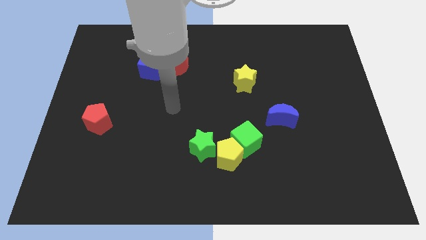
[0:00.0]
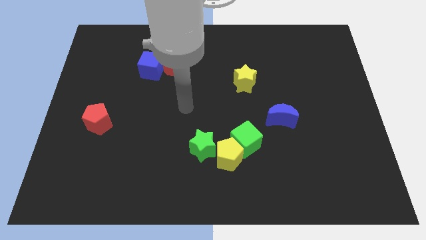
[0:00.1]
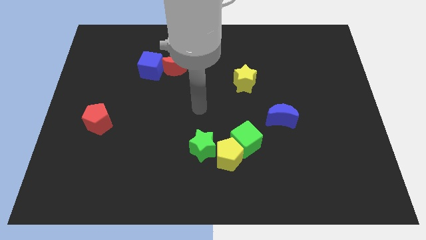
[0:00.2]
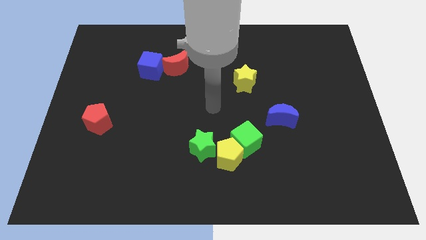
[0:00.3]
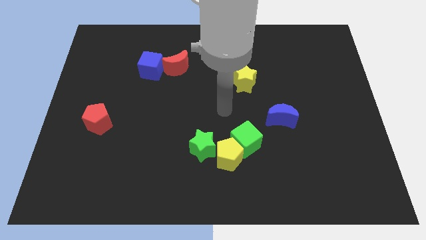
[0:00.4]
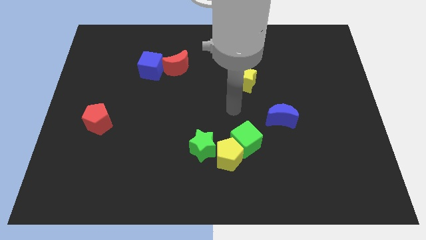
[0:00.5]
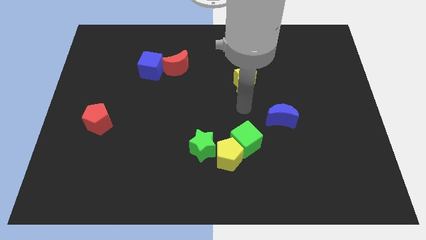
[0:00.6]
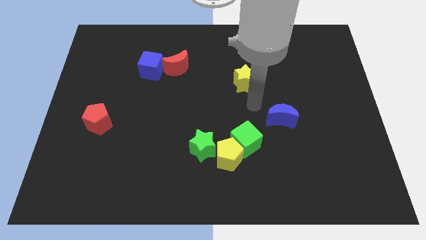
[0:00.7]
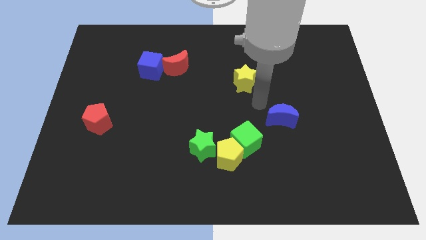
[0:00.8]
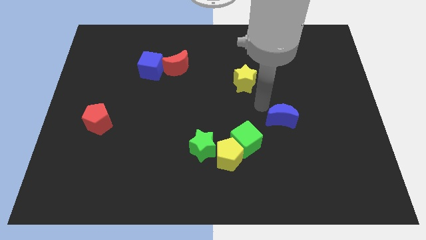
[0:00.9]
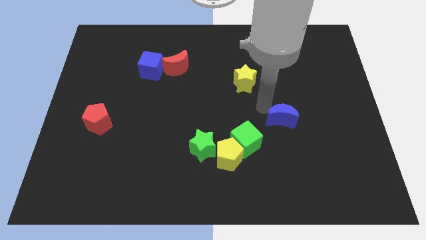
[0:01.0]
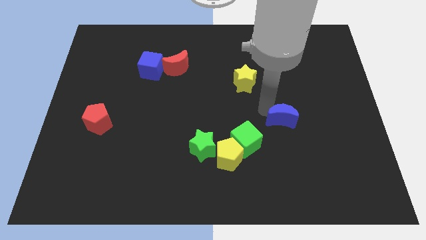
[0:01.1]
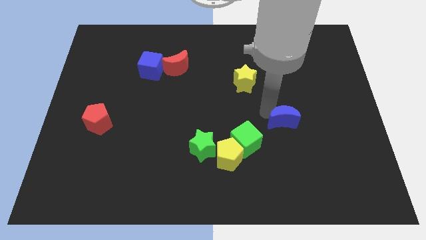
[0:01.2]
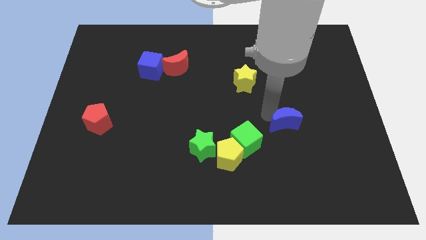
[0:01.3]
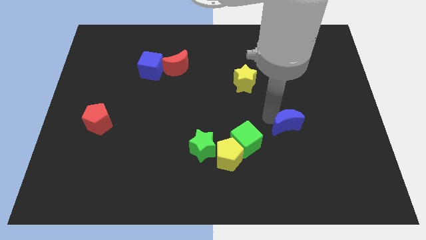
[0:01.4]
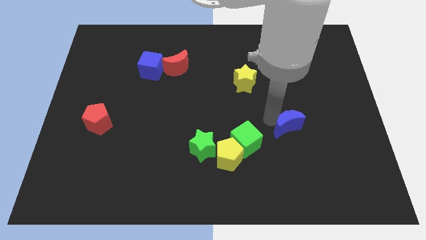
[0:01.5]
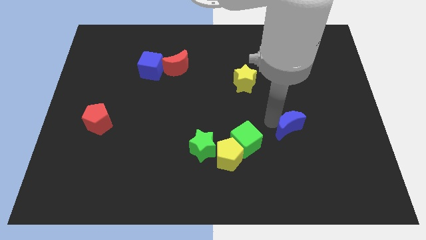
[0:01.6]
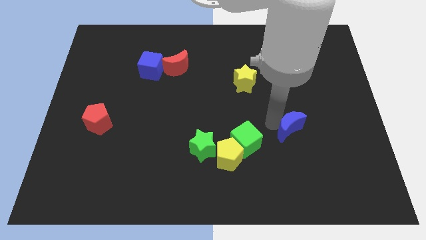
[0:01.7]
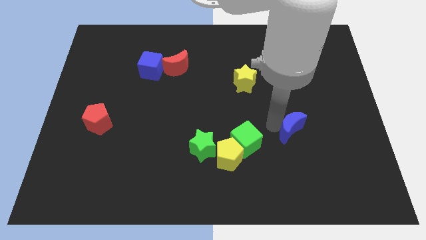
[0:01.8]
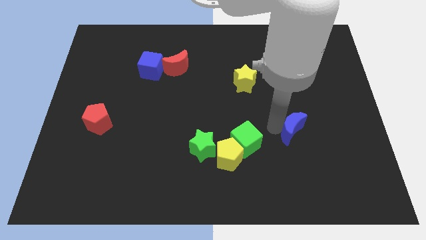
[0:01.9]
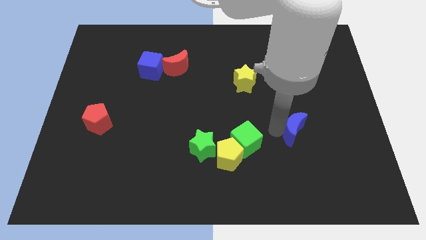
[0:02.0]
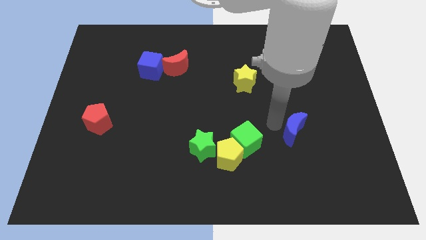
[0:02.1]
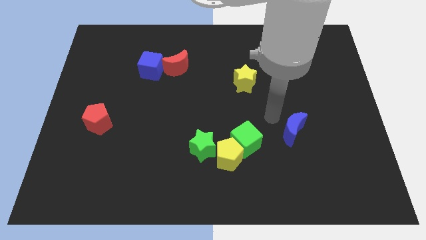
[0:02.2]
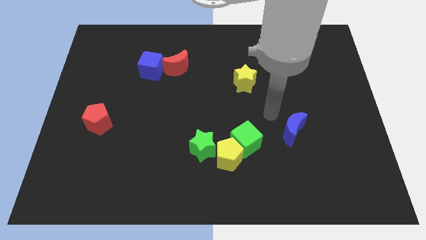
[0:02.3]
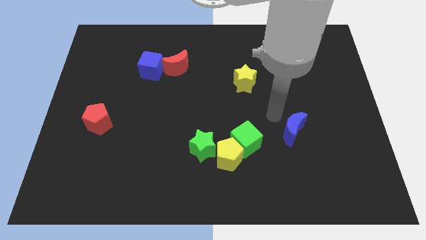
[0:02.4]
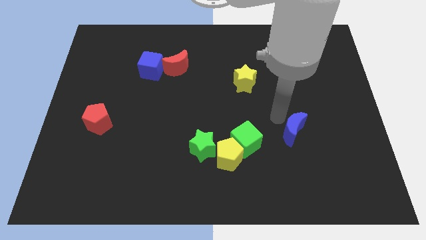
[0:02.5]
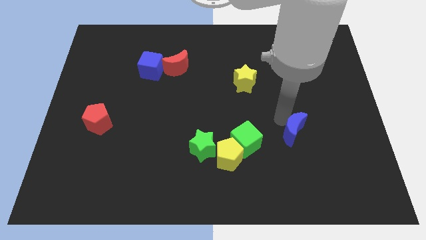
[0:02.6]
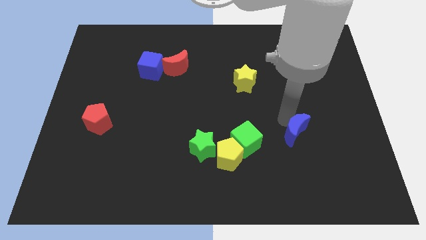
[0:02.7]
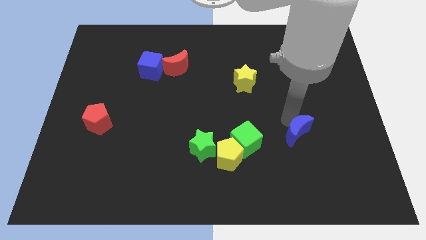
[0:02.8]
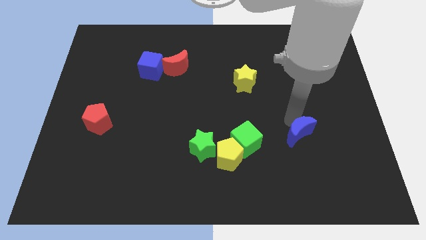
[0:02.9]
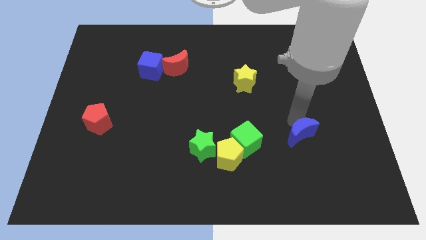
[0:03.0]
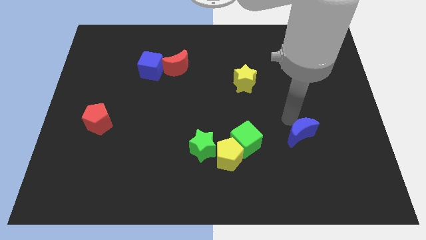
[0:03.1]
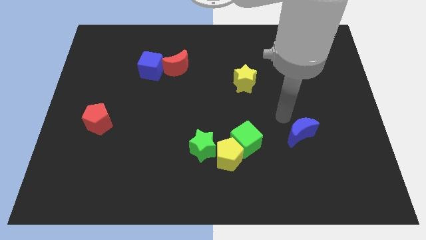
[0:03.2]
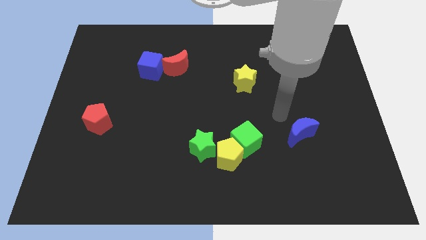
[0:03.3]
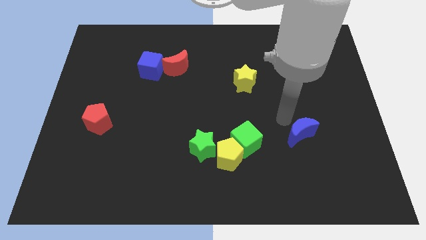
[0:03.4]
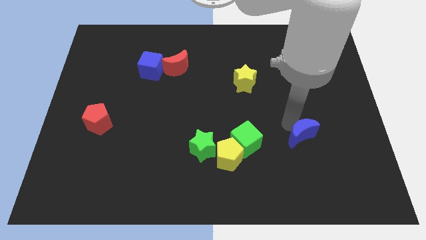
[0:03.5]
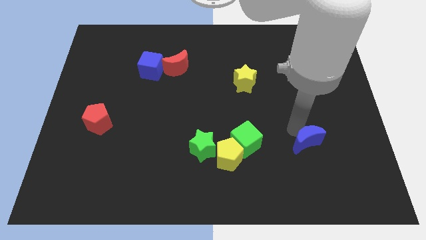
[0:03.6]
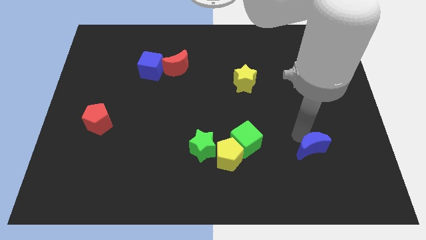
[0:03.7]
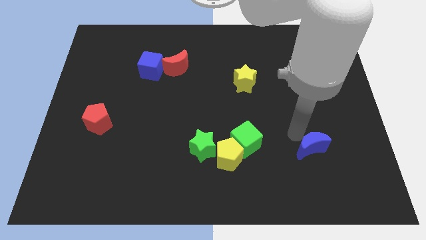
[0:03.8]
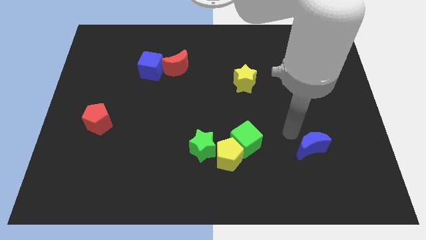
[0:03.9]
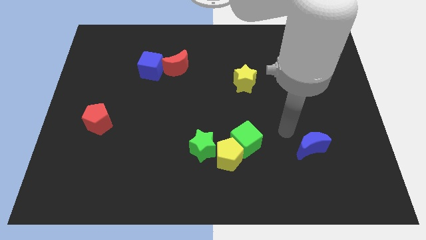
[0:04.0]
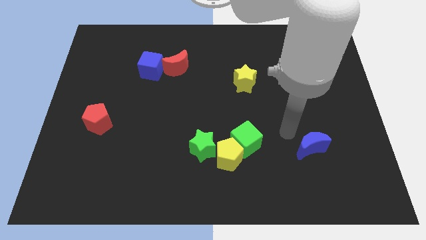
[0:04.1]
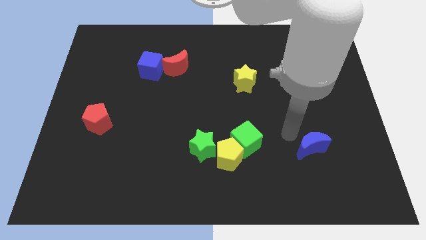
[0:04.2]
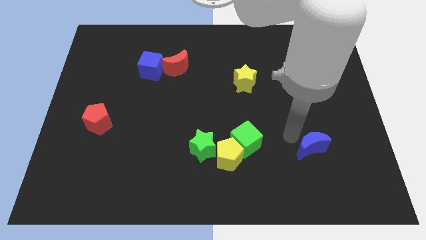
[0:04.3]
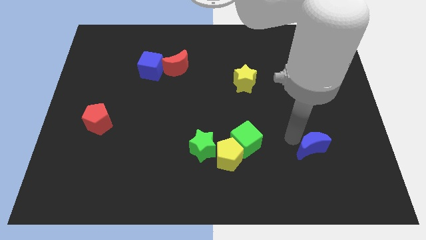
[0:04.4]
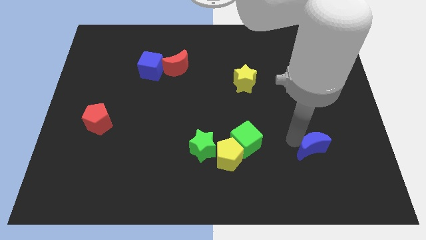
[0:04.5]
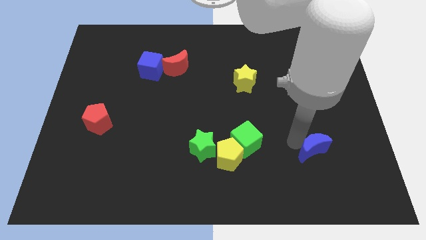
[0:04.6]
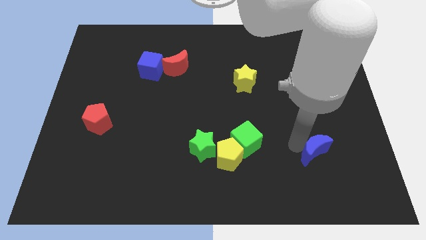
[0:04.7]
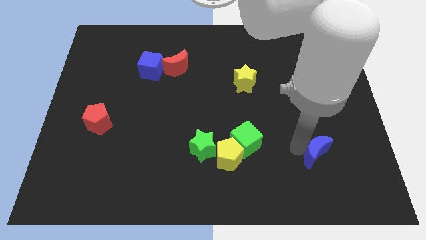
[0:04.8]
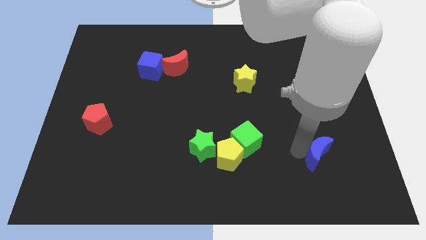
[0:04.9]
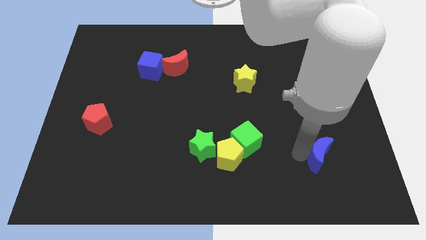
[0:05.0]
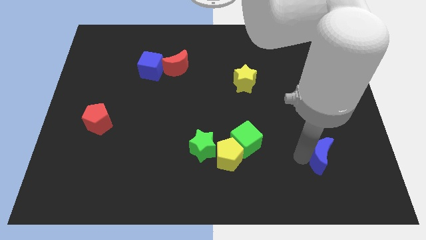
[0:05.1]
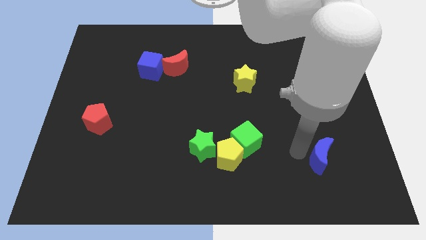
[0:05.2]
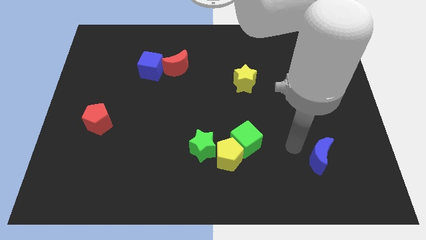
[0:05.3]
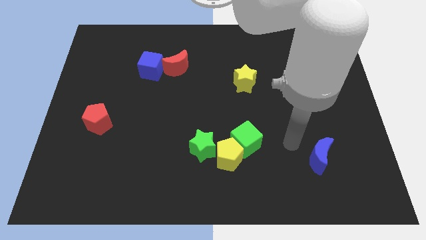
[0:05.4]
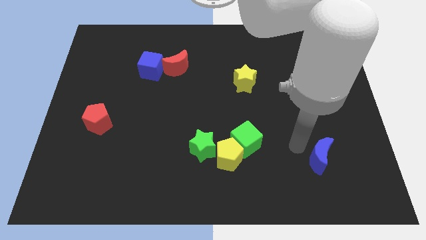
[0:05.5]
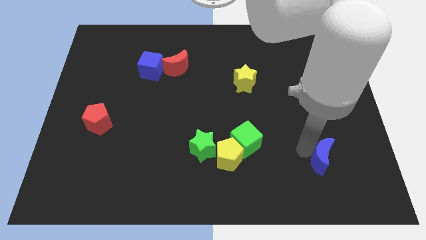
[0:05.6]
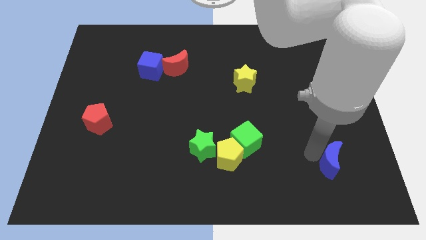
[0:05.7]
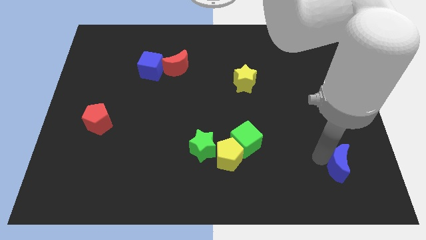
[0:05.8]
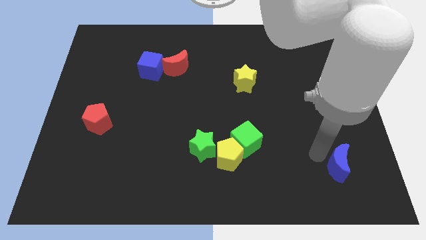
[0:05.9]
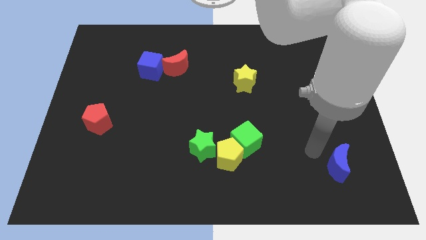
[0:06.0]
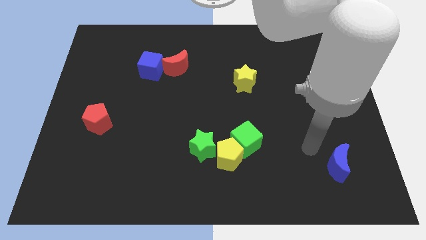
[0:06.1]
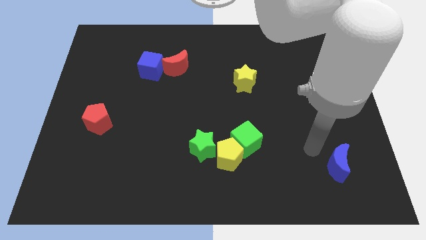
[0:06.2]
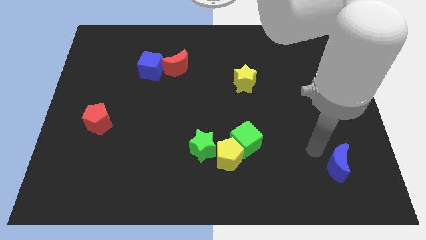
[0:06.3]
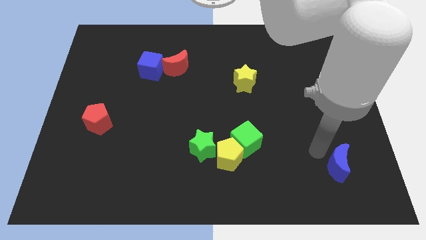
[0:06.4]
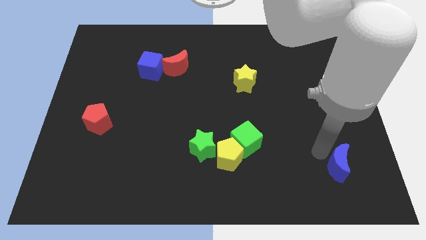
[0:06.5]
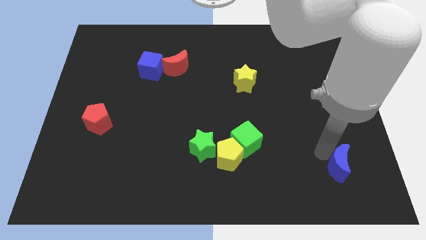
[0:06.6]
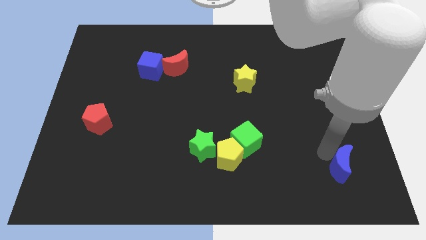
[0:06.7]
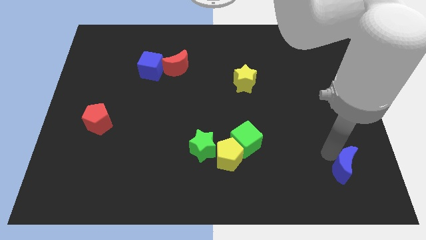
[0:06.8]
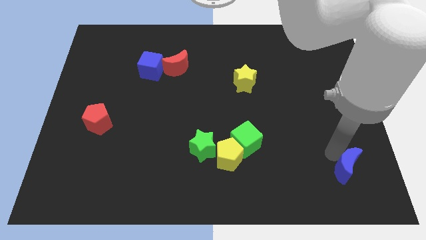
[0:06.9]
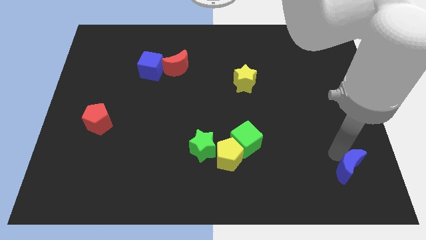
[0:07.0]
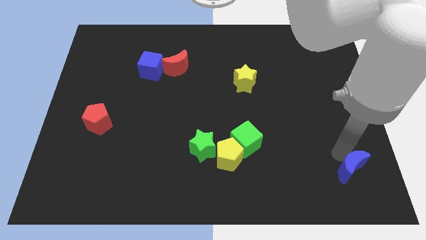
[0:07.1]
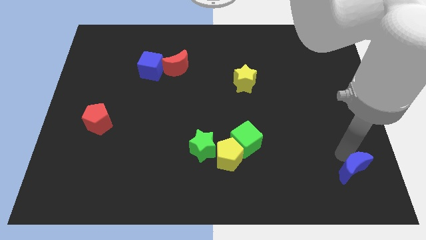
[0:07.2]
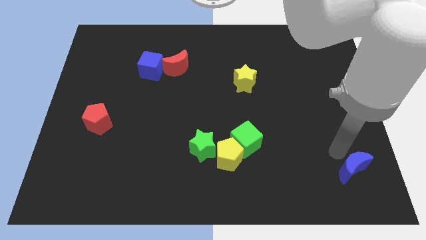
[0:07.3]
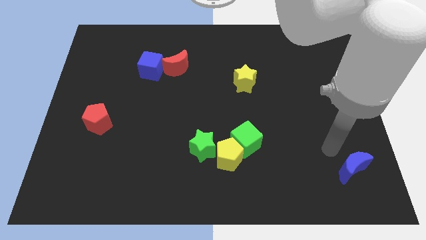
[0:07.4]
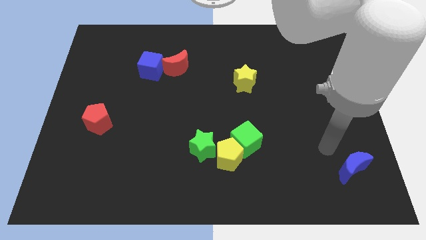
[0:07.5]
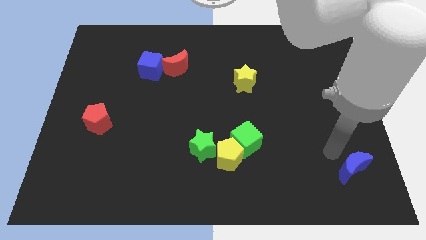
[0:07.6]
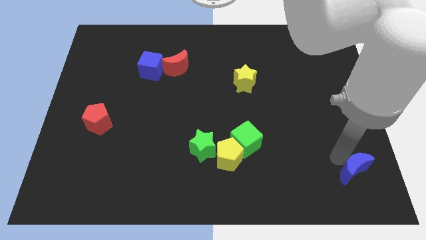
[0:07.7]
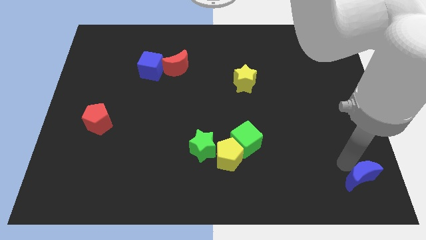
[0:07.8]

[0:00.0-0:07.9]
put the blue moon to the bottom right
